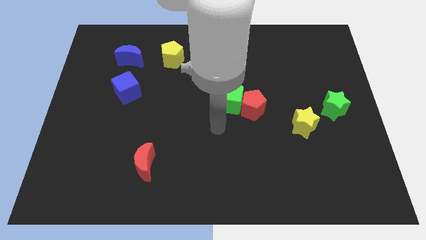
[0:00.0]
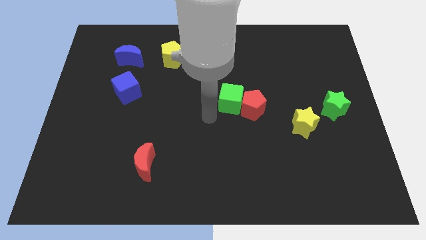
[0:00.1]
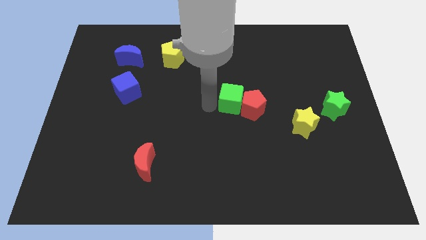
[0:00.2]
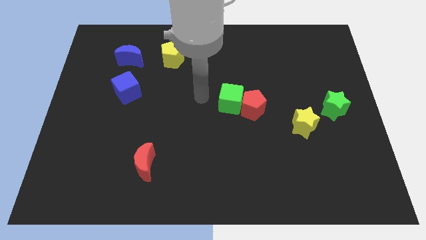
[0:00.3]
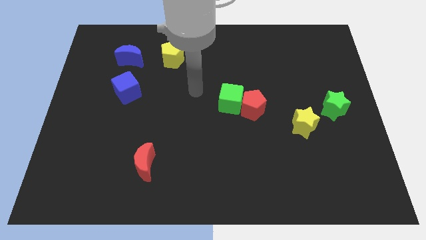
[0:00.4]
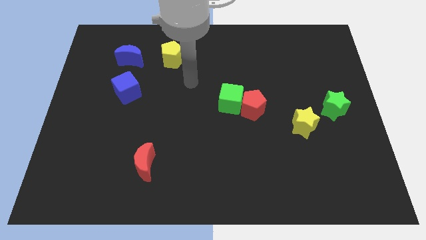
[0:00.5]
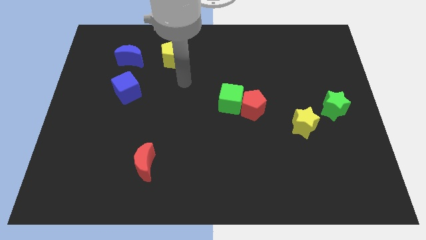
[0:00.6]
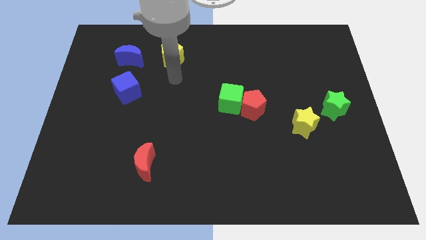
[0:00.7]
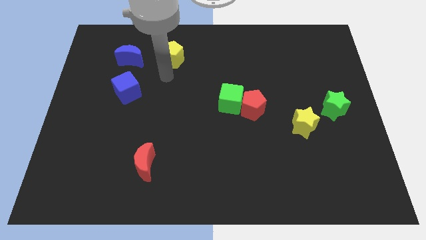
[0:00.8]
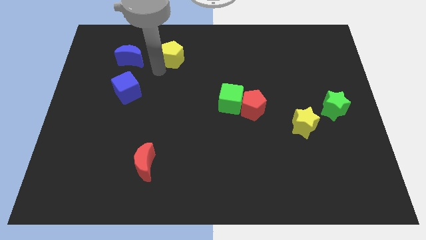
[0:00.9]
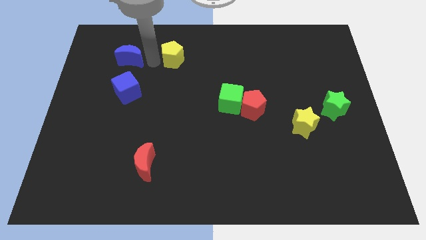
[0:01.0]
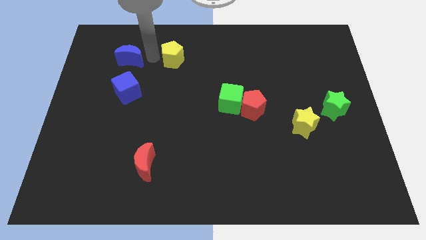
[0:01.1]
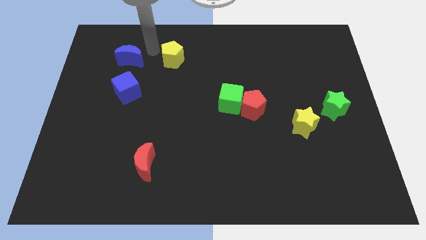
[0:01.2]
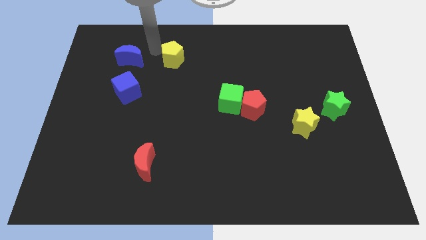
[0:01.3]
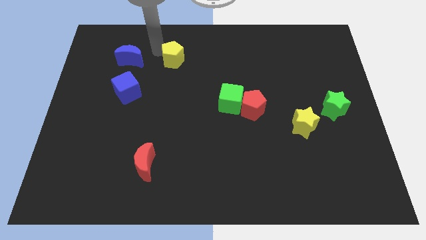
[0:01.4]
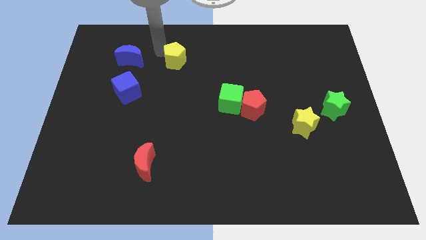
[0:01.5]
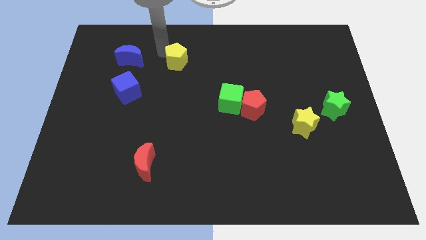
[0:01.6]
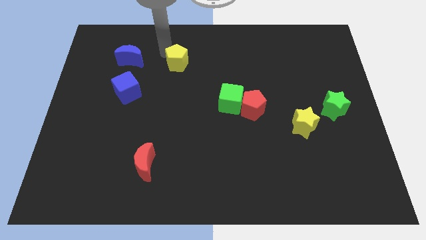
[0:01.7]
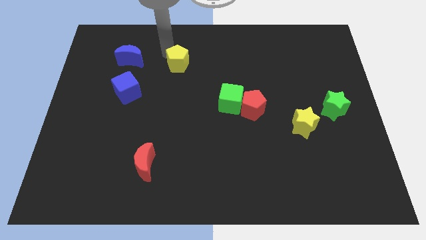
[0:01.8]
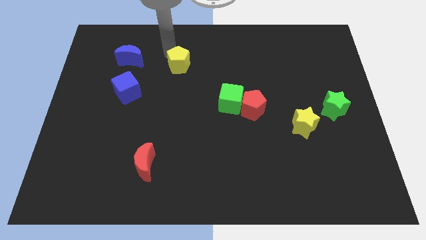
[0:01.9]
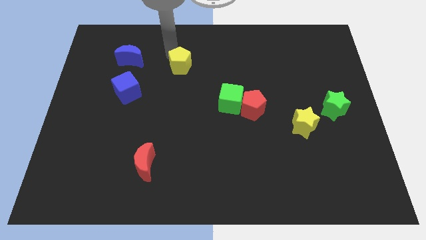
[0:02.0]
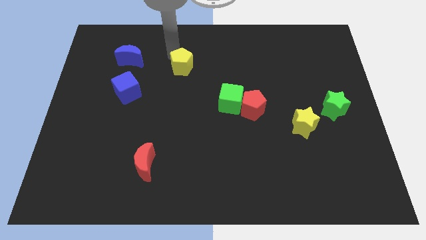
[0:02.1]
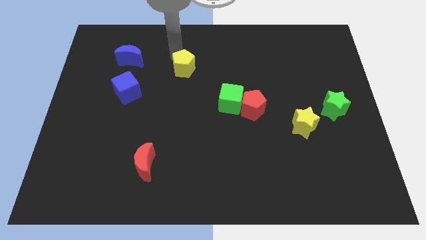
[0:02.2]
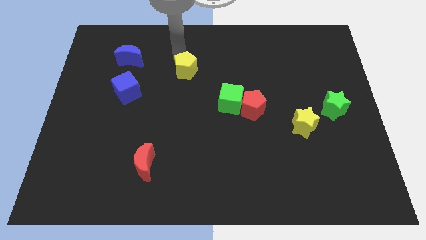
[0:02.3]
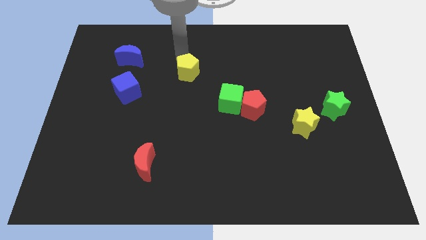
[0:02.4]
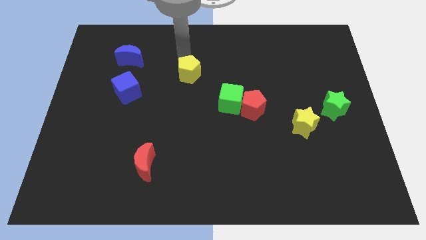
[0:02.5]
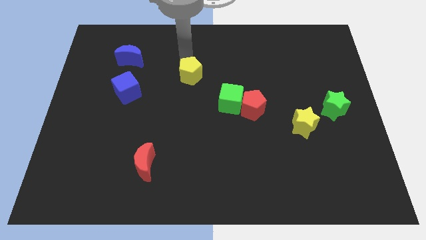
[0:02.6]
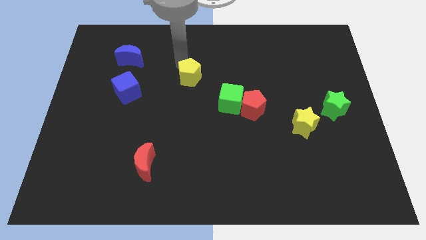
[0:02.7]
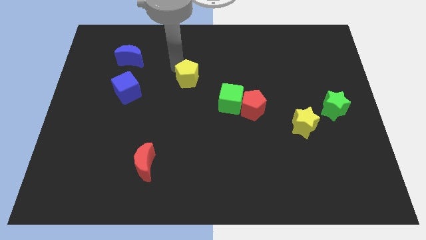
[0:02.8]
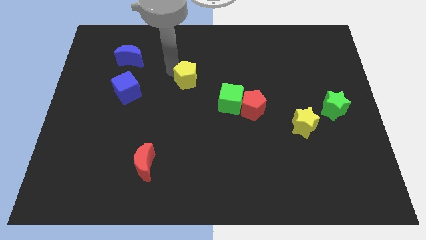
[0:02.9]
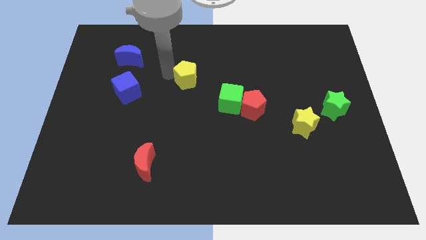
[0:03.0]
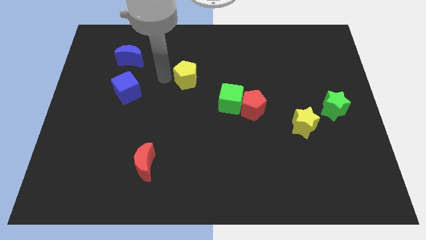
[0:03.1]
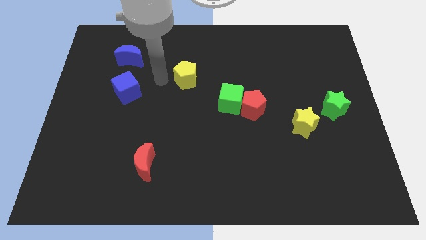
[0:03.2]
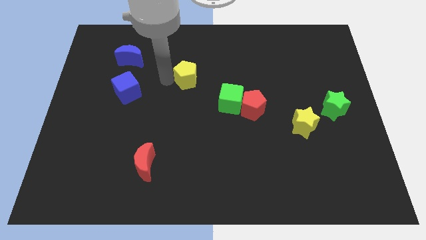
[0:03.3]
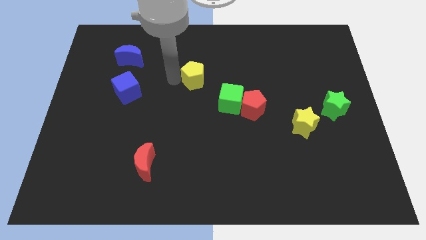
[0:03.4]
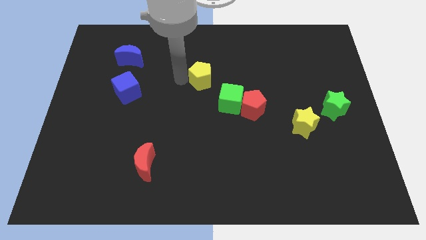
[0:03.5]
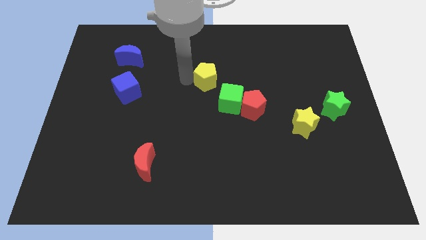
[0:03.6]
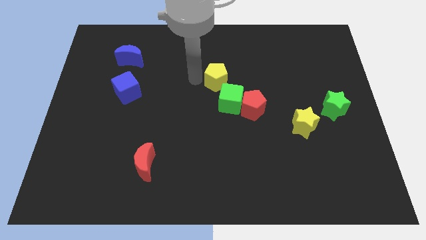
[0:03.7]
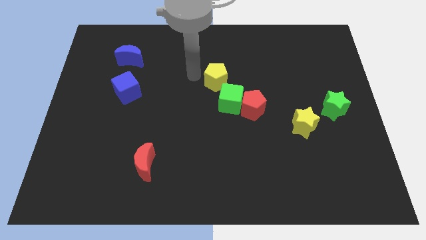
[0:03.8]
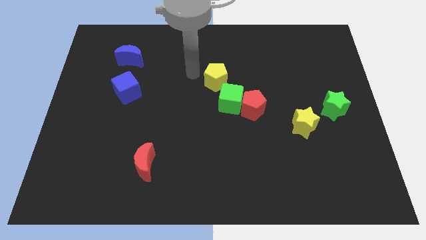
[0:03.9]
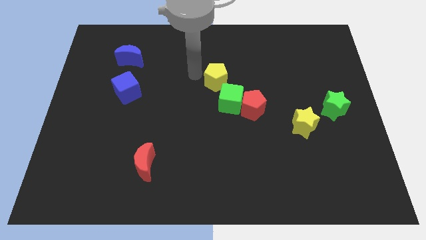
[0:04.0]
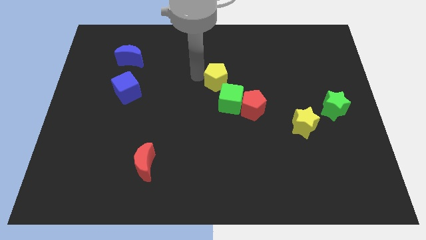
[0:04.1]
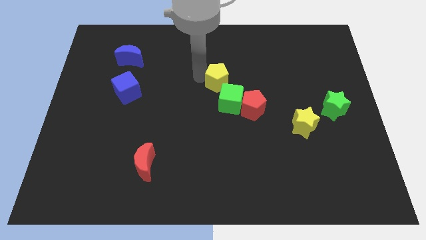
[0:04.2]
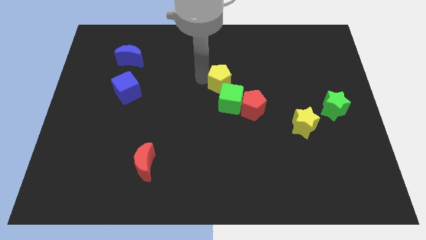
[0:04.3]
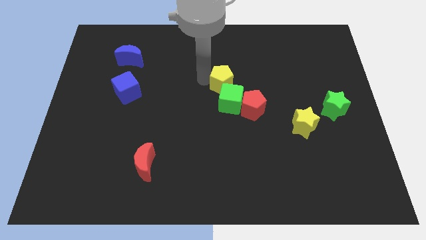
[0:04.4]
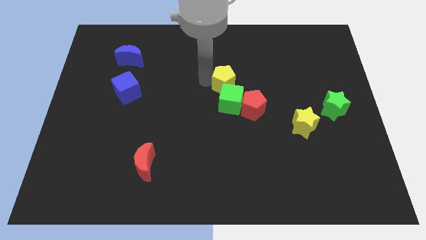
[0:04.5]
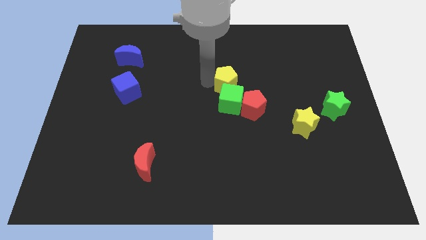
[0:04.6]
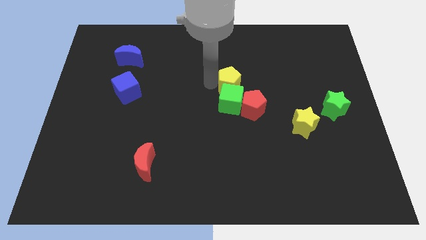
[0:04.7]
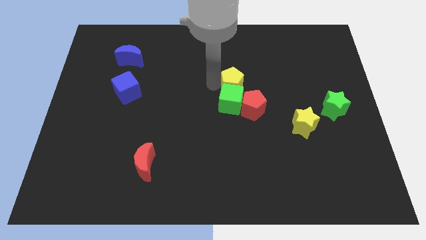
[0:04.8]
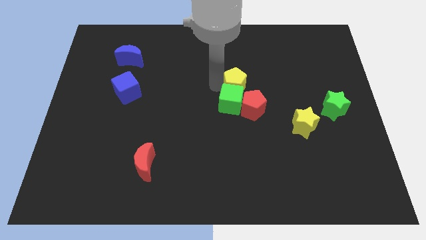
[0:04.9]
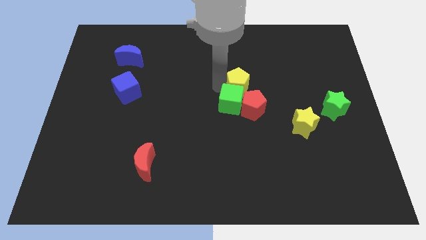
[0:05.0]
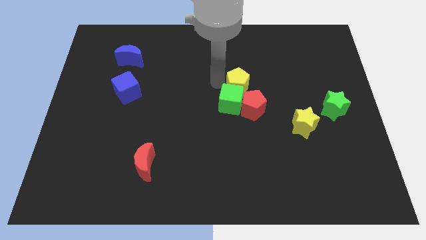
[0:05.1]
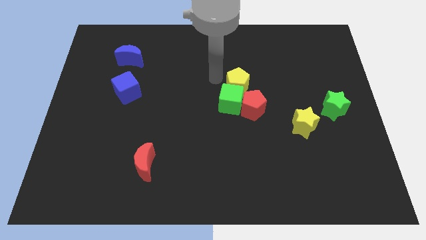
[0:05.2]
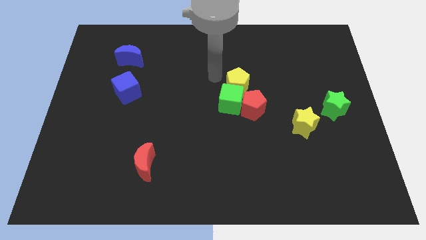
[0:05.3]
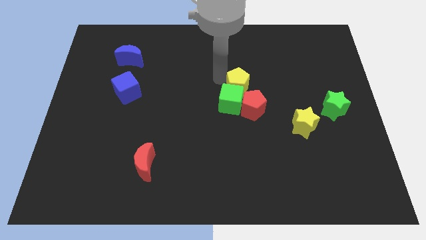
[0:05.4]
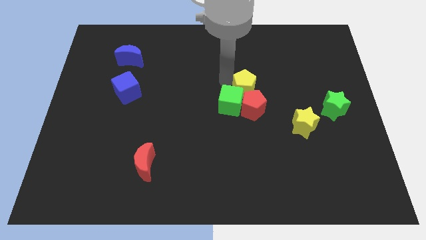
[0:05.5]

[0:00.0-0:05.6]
move the yellow pentagon to the right of the green cube

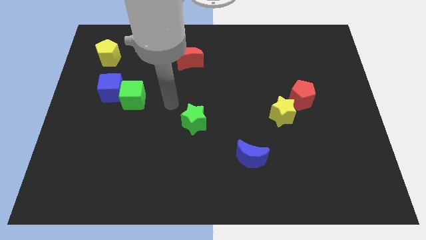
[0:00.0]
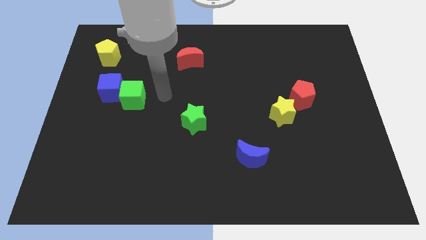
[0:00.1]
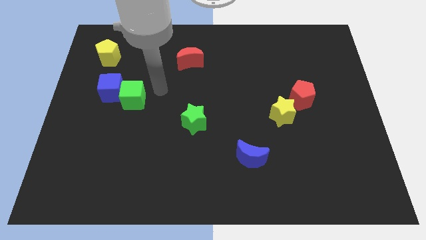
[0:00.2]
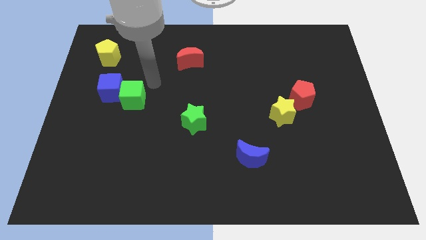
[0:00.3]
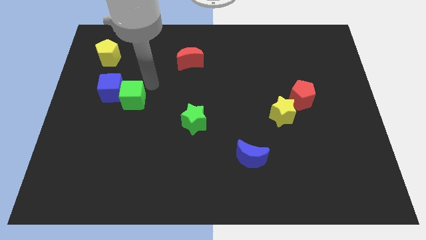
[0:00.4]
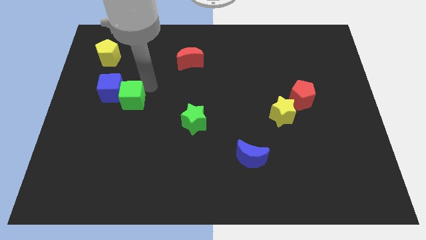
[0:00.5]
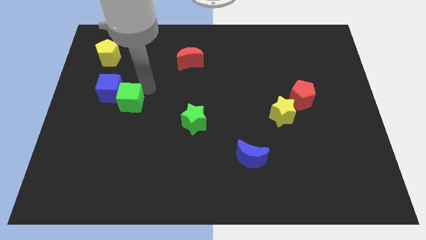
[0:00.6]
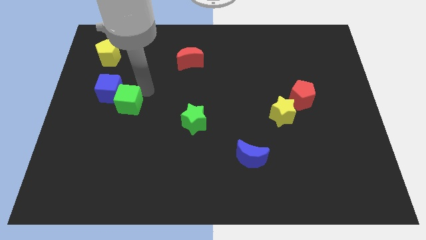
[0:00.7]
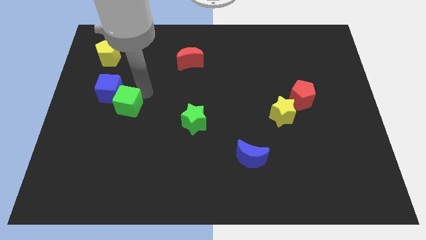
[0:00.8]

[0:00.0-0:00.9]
put the green cube to the bottom of the blue cube

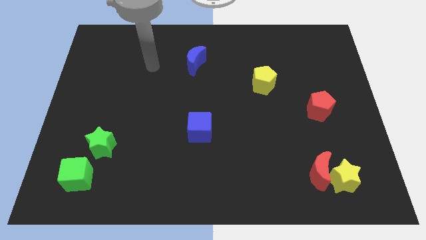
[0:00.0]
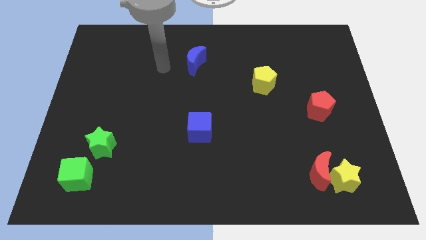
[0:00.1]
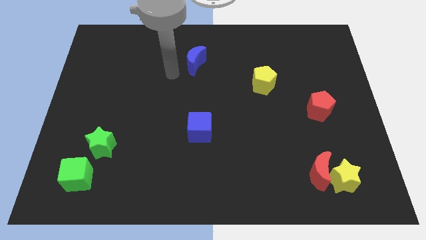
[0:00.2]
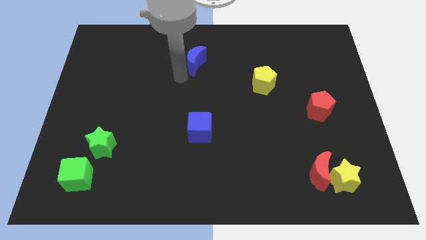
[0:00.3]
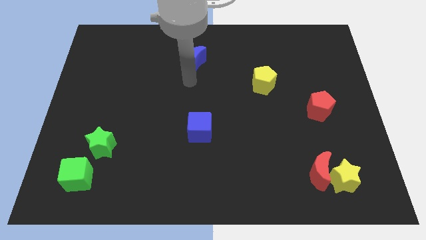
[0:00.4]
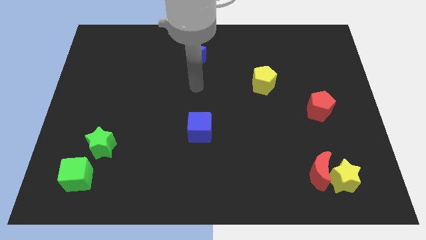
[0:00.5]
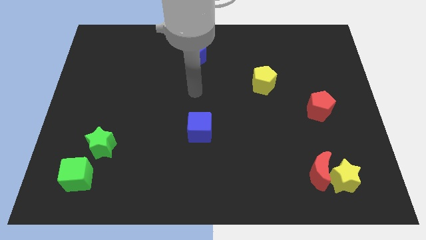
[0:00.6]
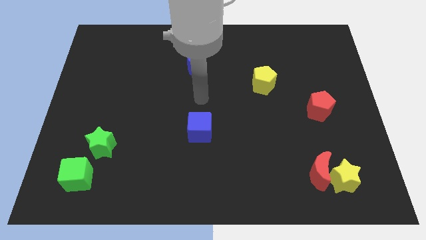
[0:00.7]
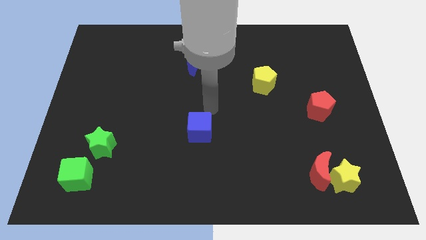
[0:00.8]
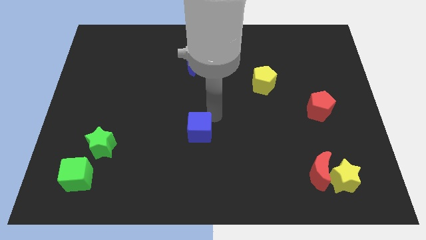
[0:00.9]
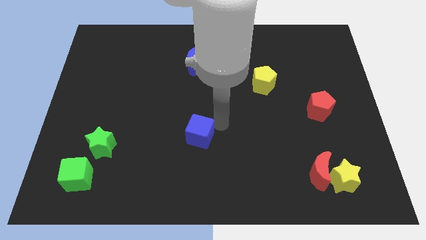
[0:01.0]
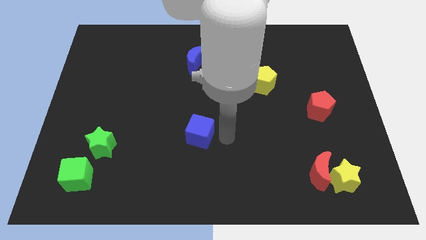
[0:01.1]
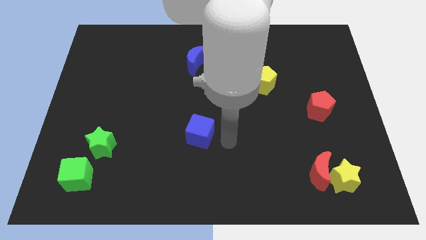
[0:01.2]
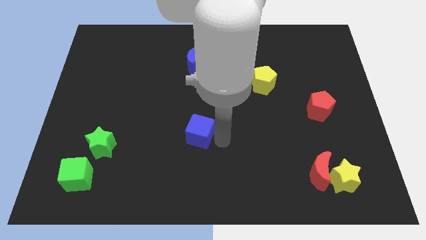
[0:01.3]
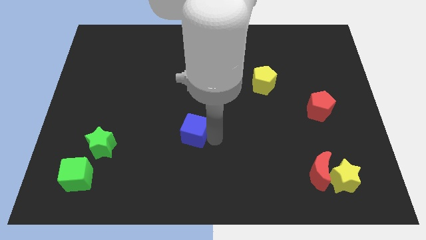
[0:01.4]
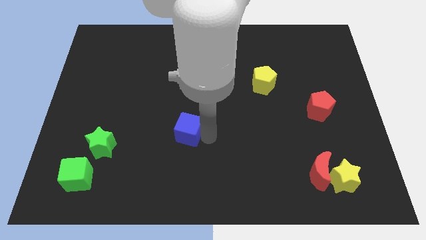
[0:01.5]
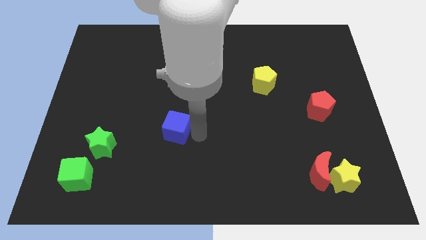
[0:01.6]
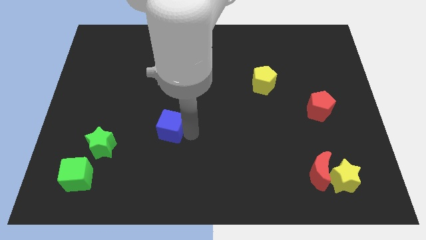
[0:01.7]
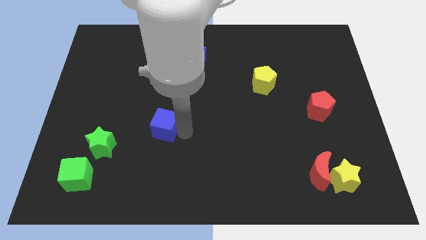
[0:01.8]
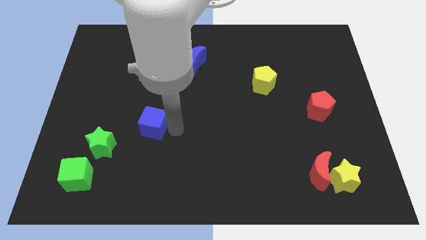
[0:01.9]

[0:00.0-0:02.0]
slide the blue cube to the top right of the green star
